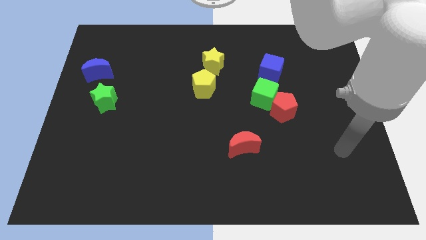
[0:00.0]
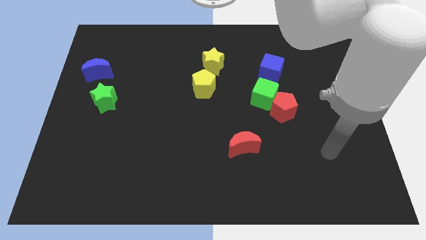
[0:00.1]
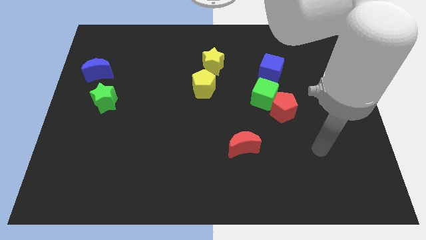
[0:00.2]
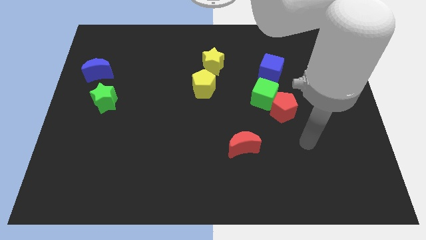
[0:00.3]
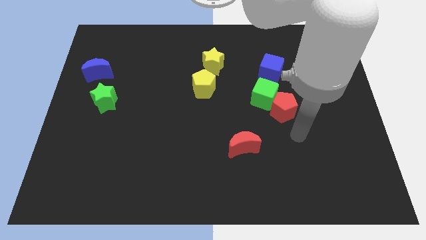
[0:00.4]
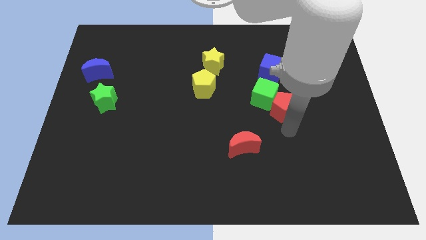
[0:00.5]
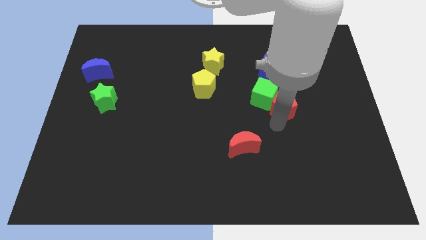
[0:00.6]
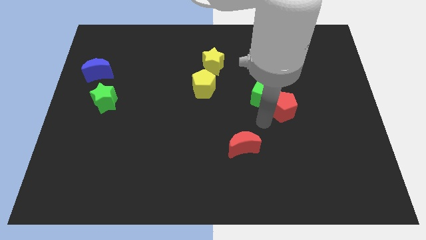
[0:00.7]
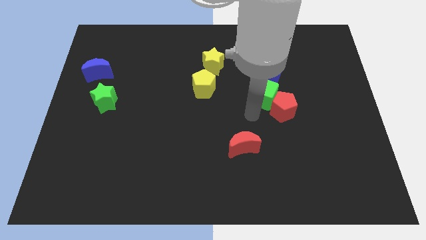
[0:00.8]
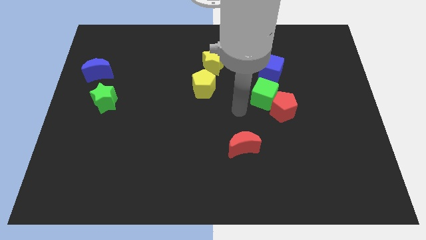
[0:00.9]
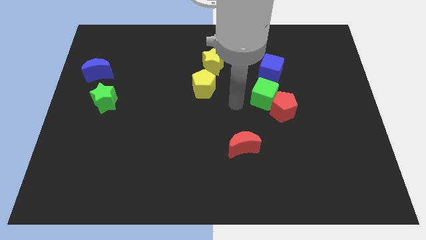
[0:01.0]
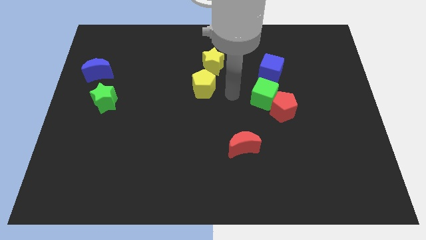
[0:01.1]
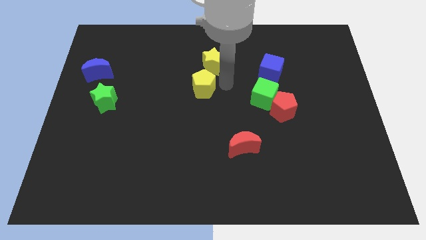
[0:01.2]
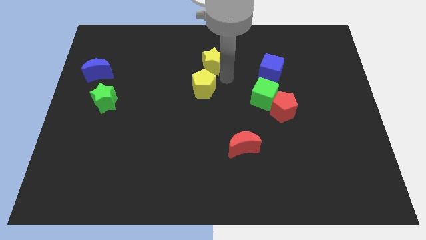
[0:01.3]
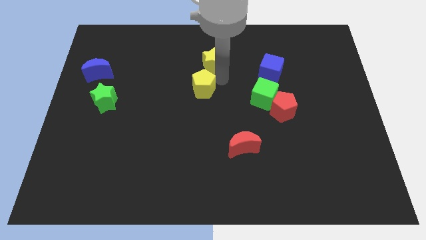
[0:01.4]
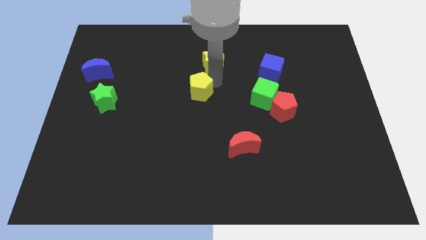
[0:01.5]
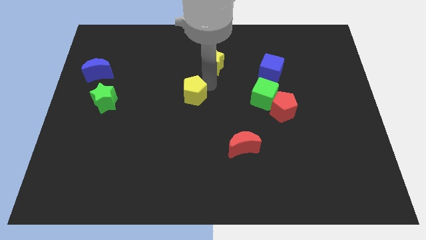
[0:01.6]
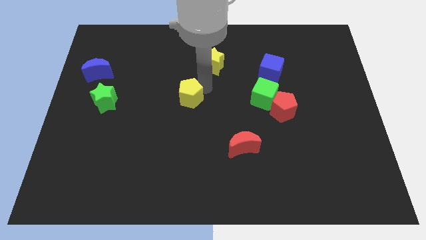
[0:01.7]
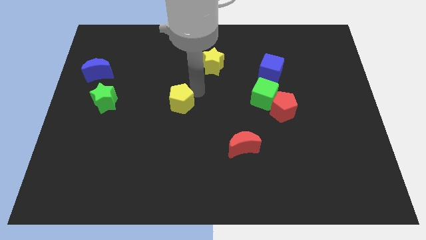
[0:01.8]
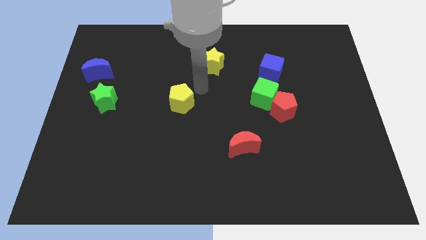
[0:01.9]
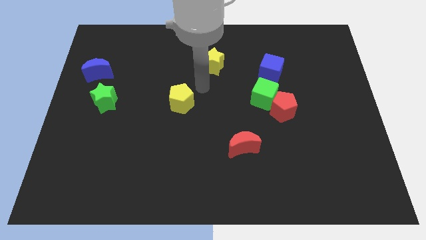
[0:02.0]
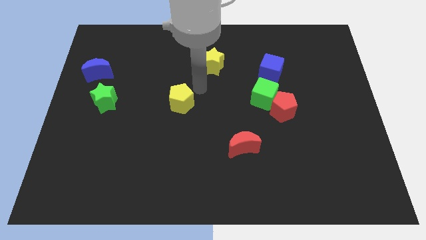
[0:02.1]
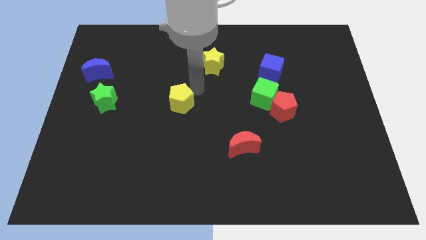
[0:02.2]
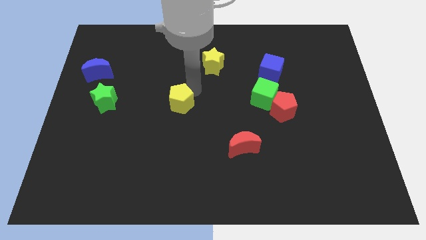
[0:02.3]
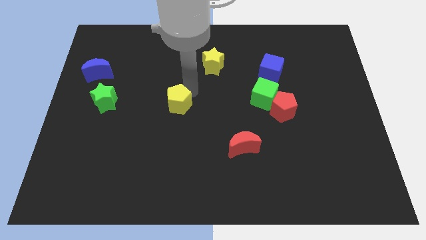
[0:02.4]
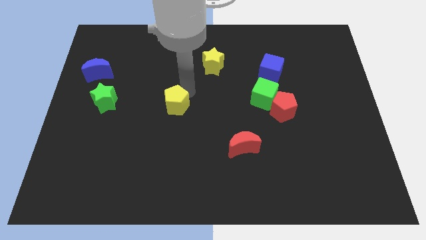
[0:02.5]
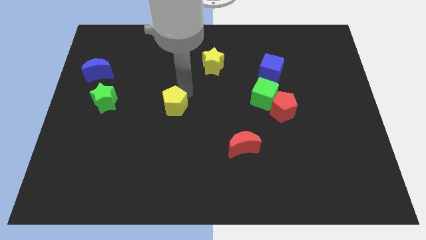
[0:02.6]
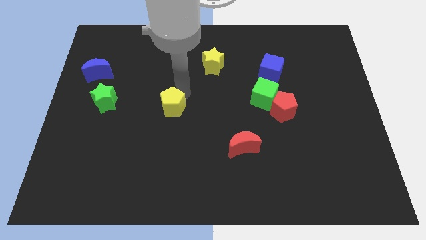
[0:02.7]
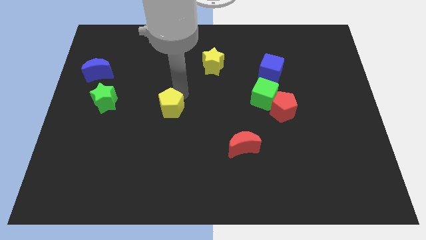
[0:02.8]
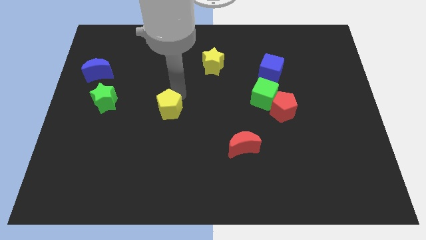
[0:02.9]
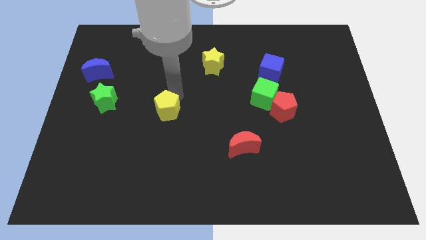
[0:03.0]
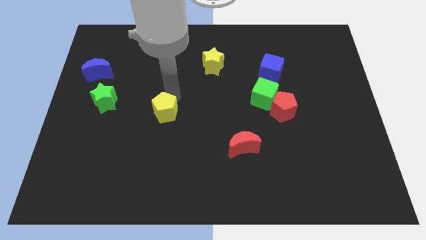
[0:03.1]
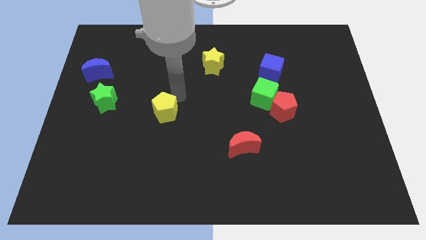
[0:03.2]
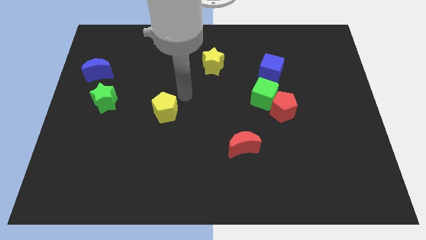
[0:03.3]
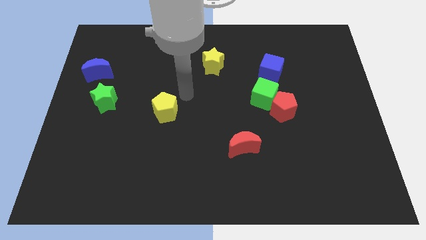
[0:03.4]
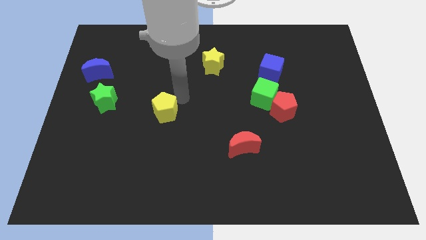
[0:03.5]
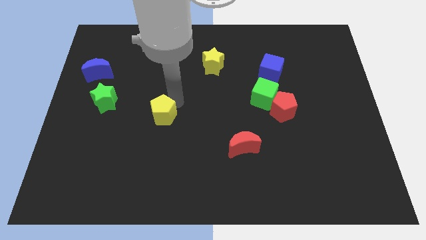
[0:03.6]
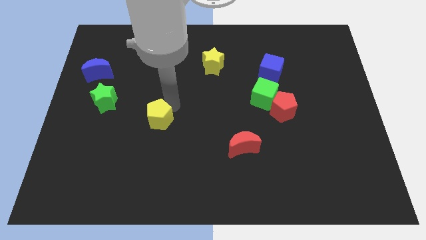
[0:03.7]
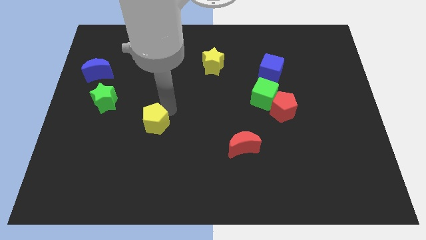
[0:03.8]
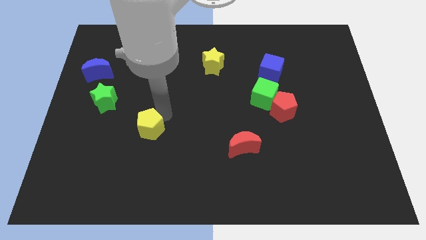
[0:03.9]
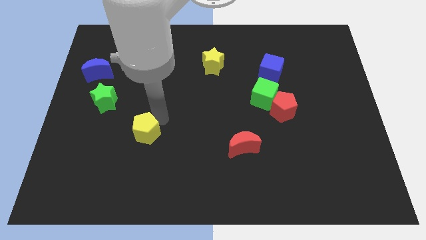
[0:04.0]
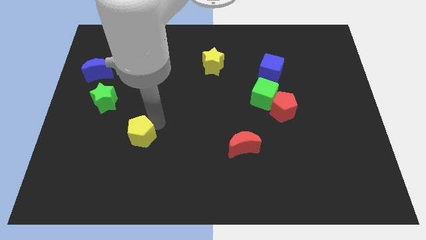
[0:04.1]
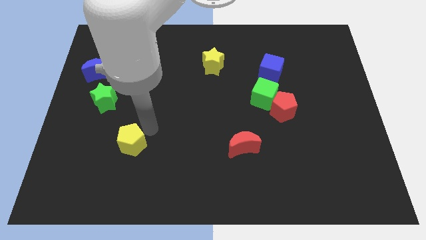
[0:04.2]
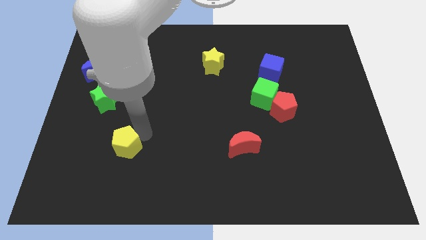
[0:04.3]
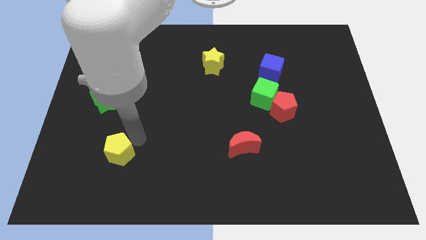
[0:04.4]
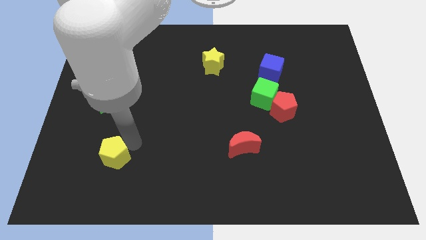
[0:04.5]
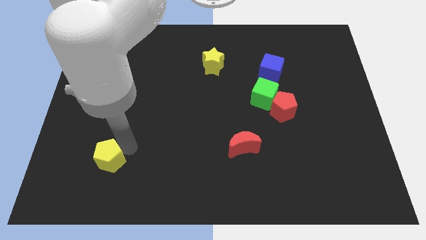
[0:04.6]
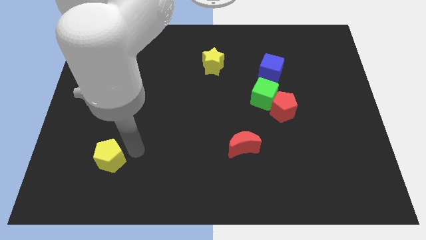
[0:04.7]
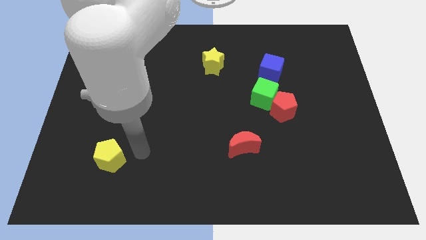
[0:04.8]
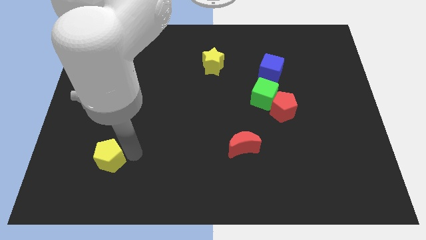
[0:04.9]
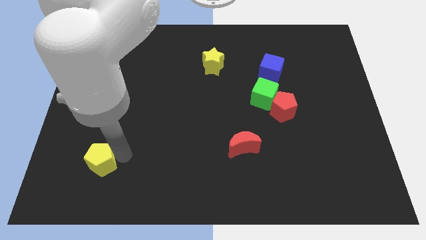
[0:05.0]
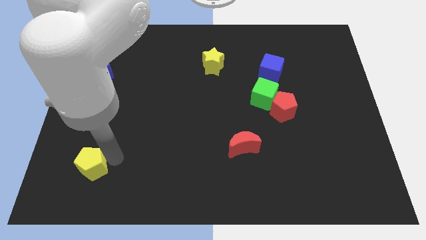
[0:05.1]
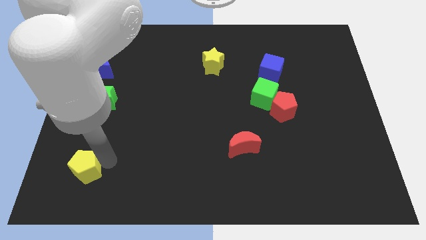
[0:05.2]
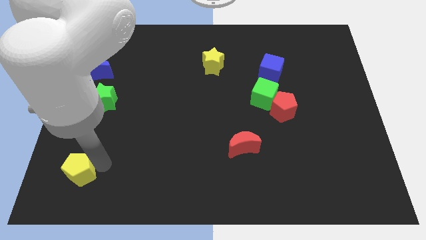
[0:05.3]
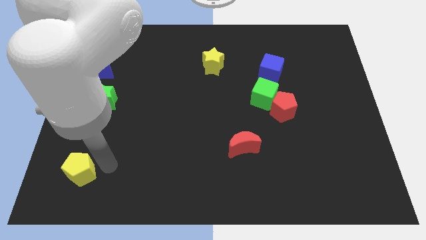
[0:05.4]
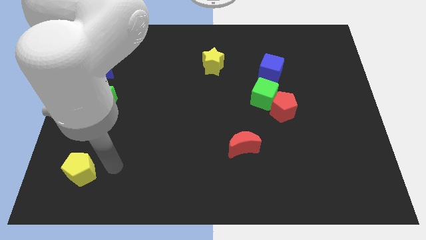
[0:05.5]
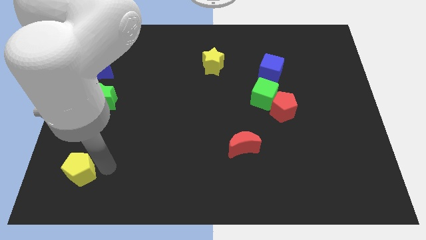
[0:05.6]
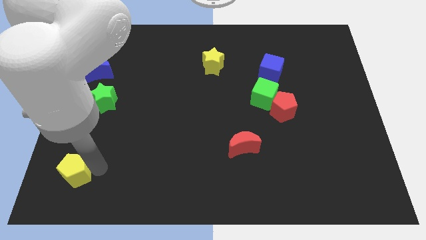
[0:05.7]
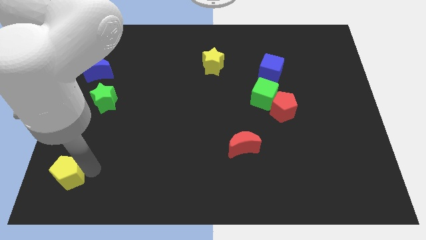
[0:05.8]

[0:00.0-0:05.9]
push the yellow pentagon to the lower left corner
